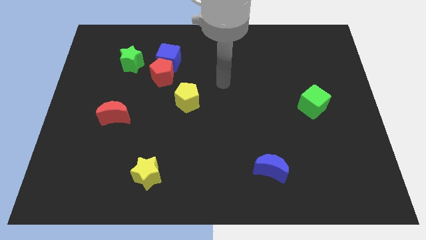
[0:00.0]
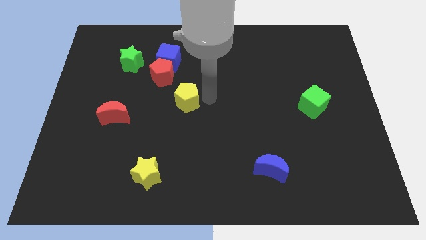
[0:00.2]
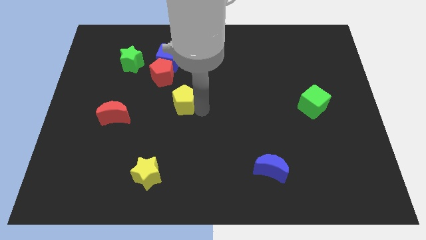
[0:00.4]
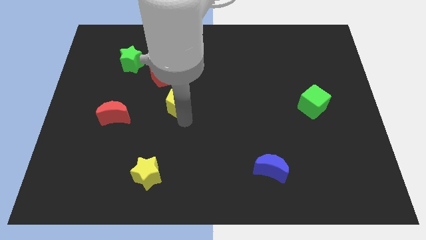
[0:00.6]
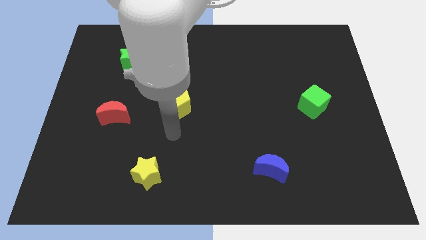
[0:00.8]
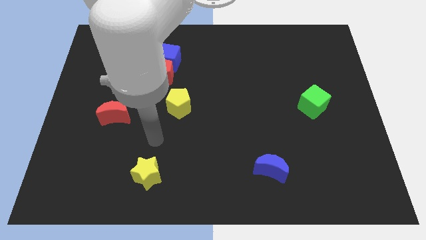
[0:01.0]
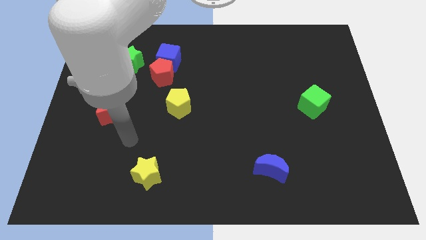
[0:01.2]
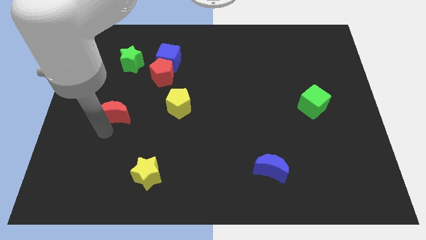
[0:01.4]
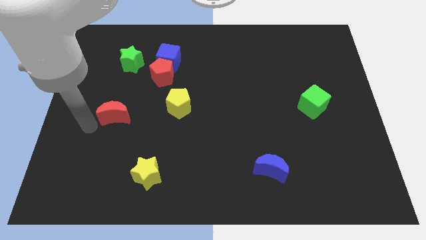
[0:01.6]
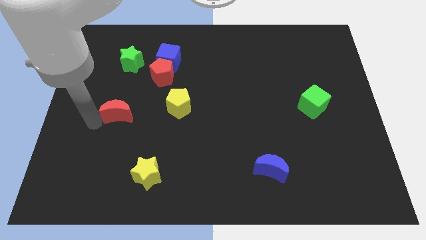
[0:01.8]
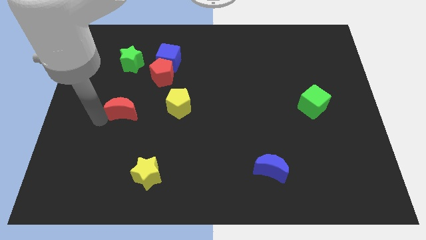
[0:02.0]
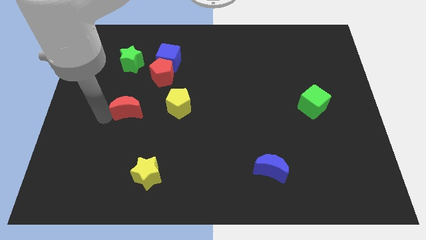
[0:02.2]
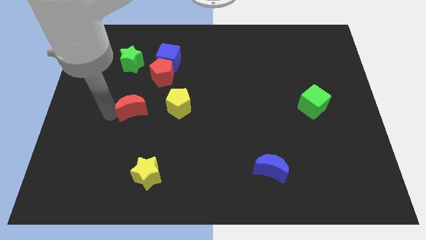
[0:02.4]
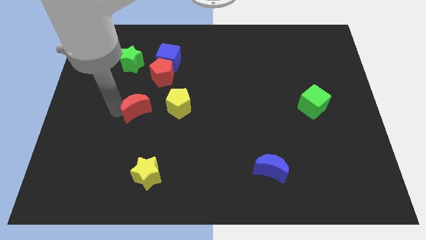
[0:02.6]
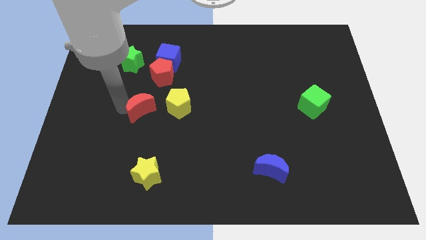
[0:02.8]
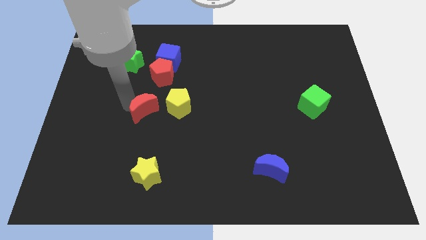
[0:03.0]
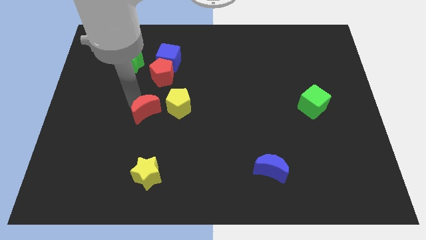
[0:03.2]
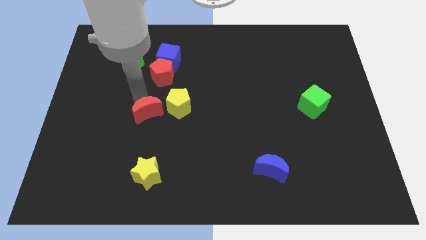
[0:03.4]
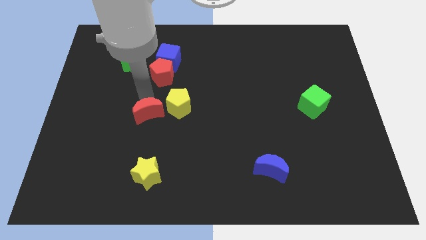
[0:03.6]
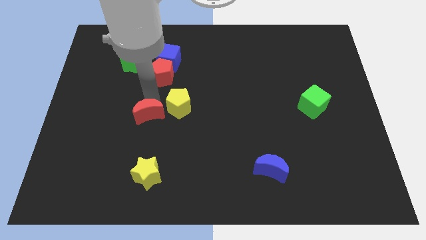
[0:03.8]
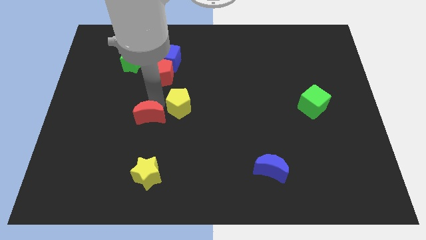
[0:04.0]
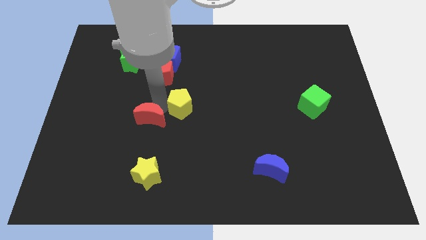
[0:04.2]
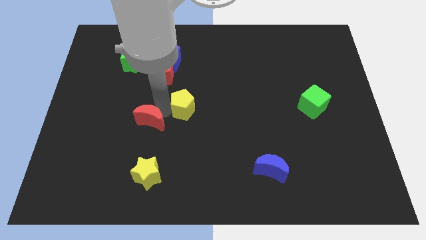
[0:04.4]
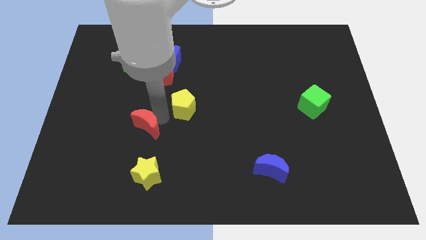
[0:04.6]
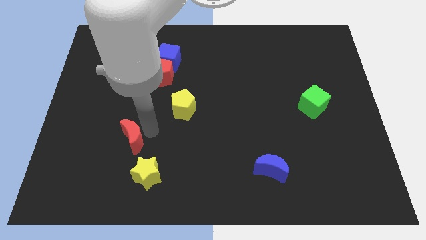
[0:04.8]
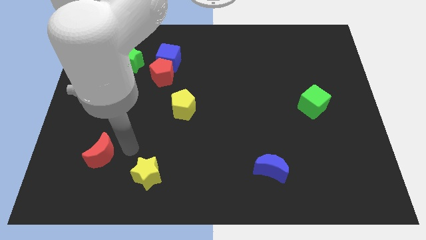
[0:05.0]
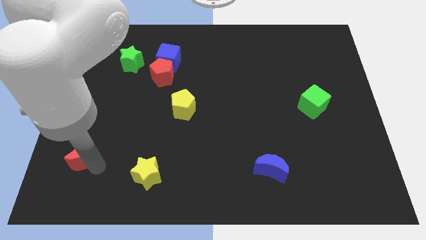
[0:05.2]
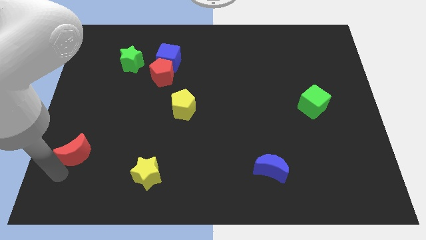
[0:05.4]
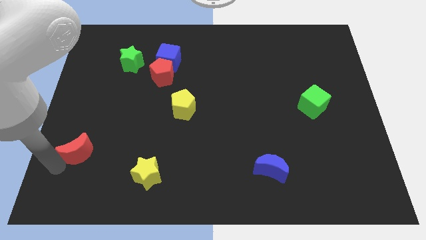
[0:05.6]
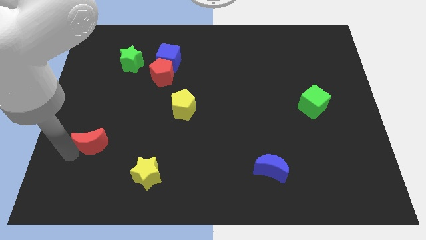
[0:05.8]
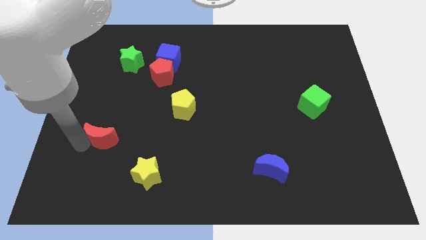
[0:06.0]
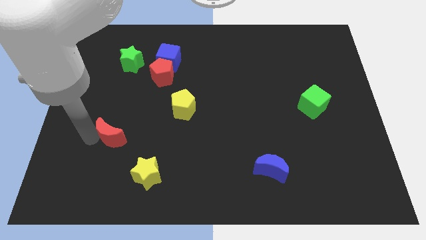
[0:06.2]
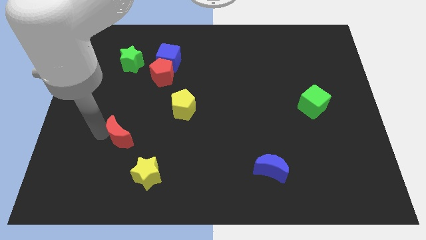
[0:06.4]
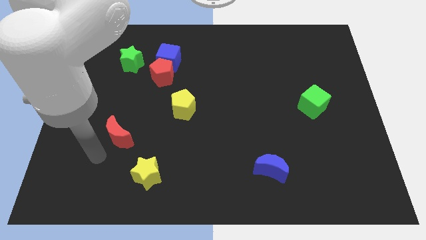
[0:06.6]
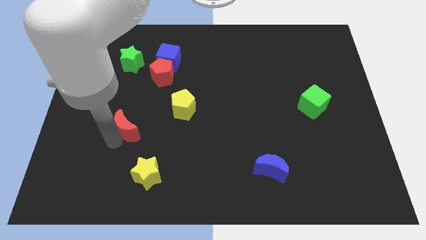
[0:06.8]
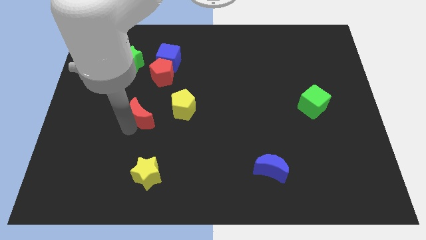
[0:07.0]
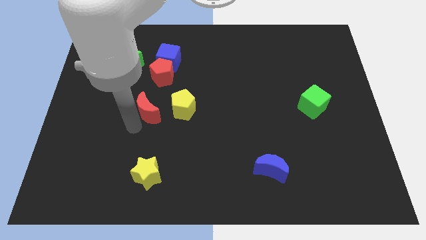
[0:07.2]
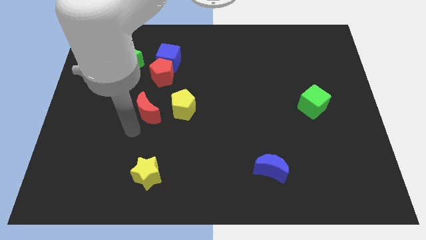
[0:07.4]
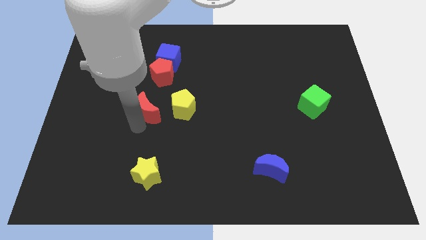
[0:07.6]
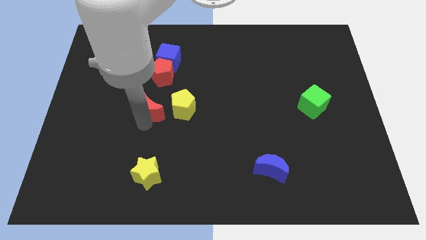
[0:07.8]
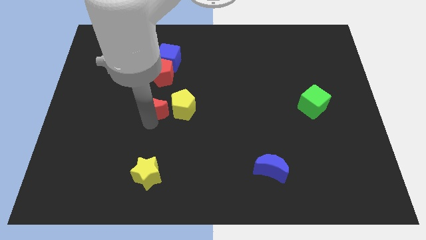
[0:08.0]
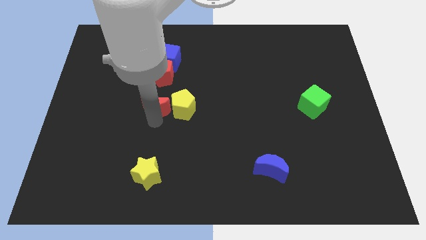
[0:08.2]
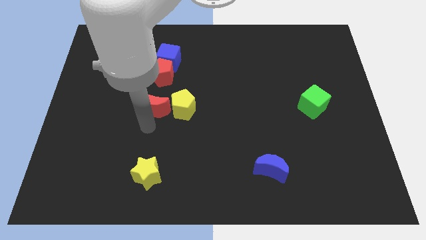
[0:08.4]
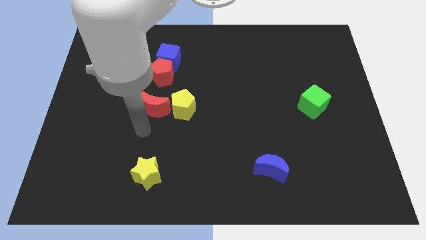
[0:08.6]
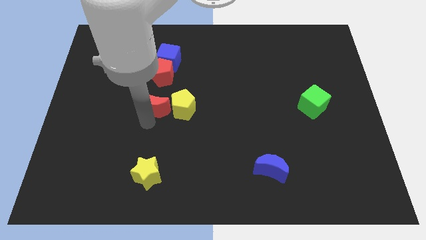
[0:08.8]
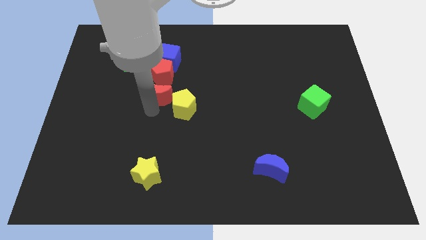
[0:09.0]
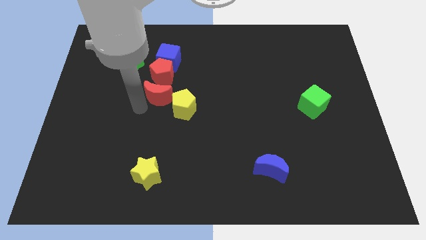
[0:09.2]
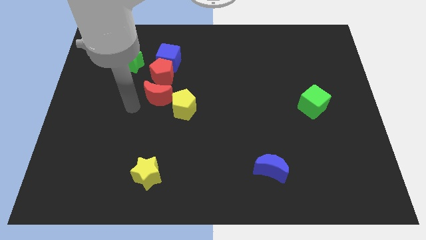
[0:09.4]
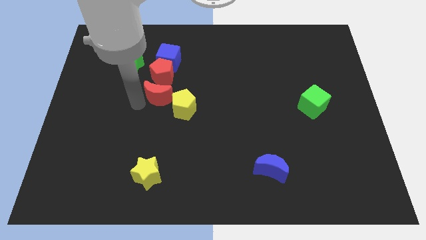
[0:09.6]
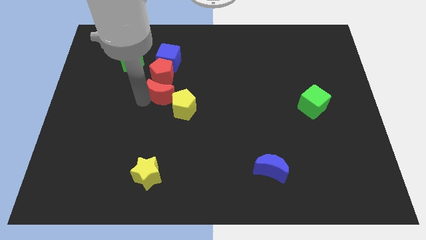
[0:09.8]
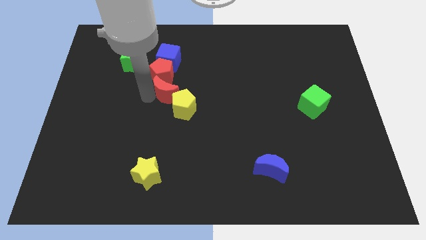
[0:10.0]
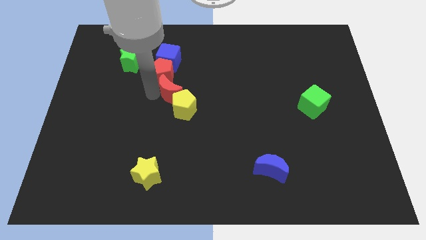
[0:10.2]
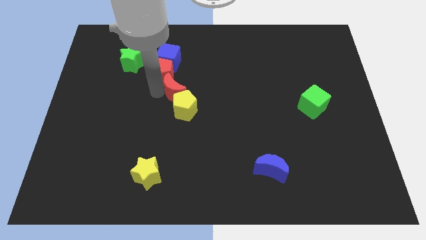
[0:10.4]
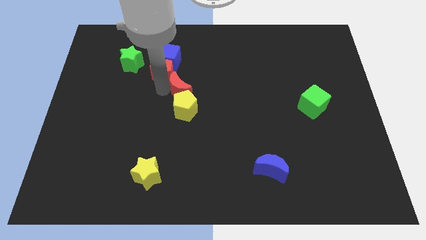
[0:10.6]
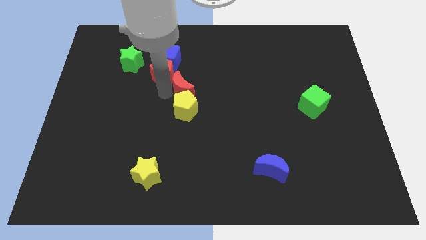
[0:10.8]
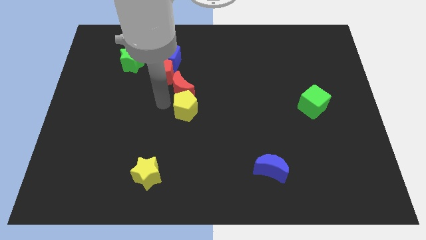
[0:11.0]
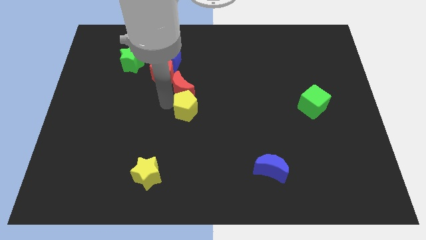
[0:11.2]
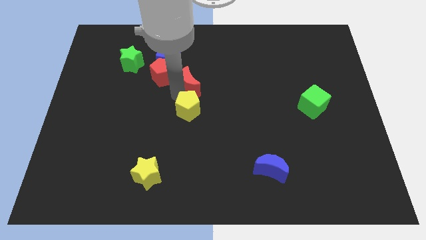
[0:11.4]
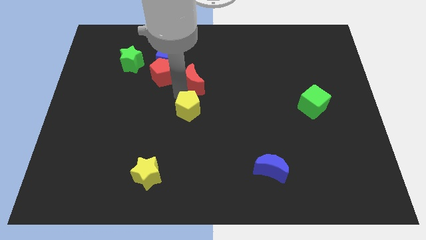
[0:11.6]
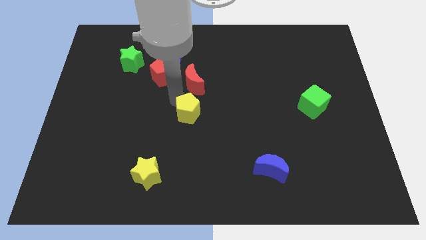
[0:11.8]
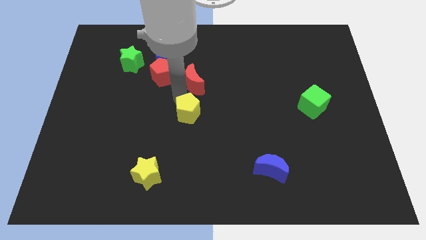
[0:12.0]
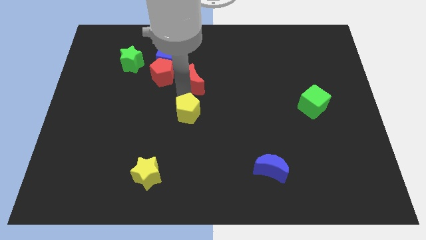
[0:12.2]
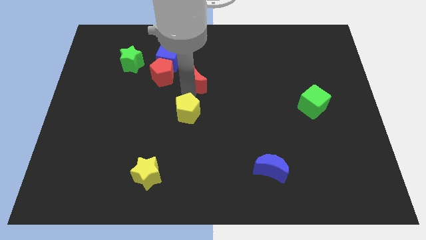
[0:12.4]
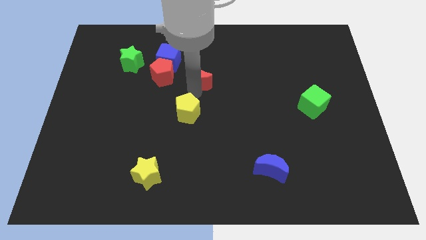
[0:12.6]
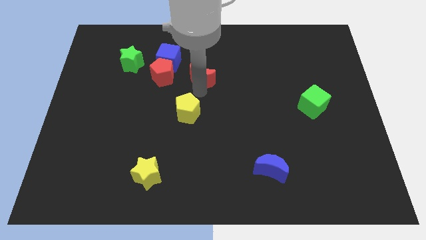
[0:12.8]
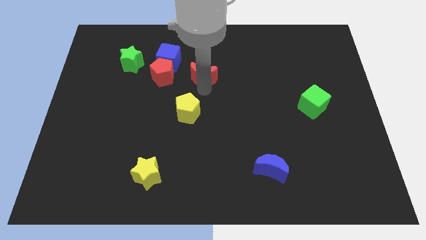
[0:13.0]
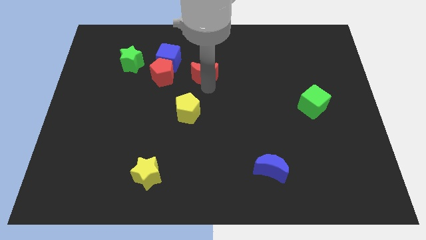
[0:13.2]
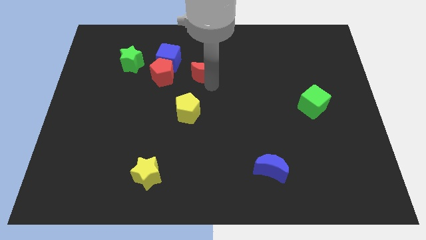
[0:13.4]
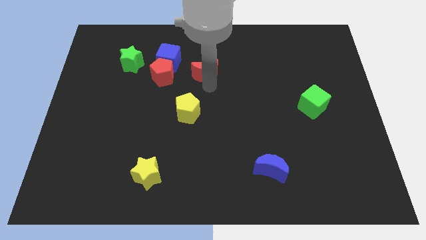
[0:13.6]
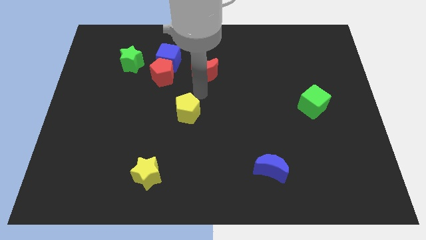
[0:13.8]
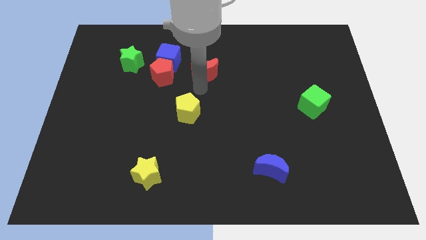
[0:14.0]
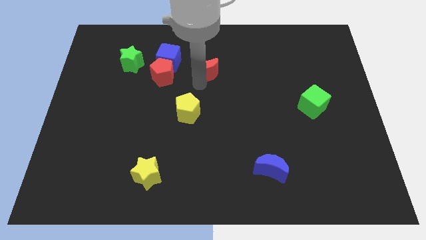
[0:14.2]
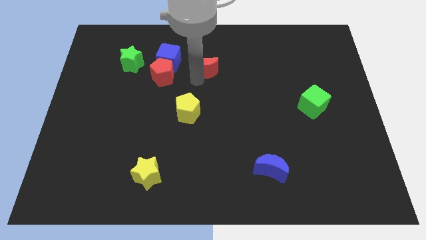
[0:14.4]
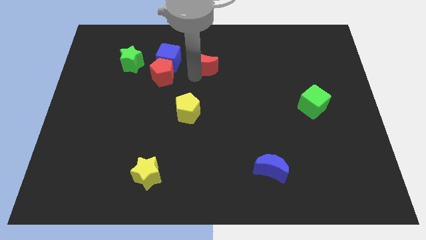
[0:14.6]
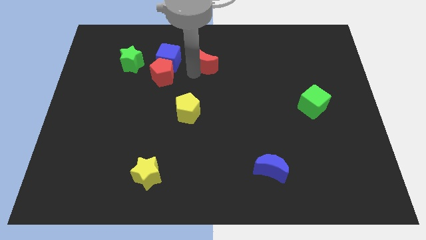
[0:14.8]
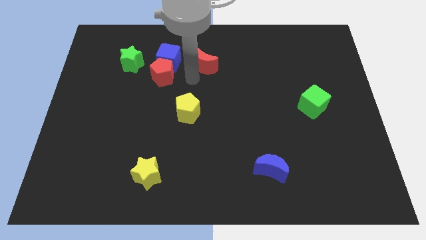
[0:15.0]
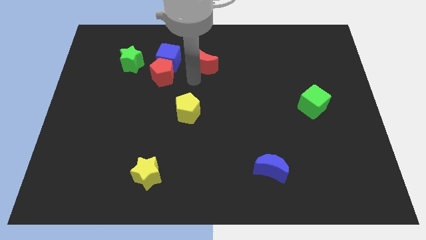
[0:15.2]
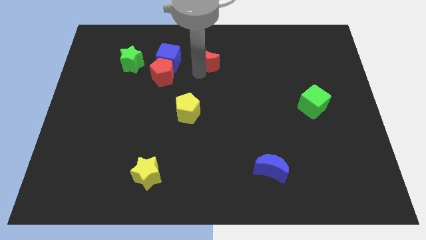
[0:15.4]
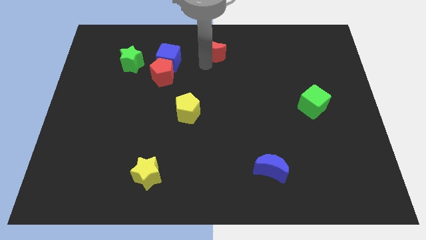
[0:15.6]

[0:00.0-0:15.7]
push the red moon to the top side
